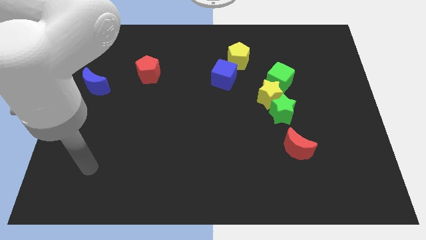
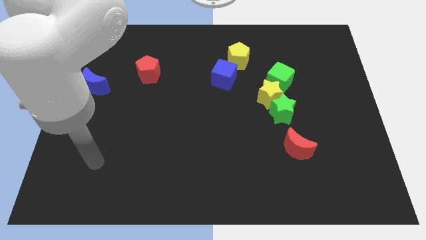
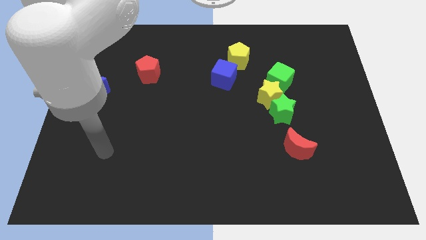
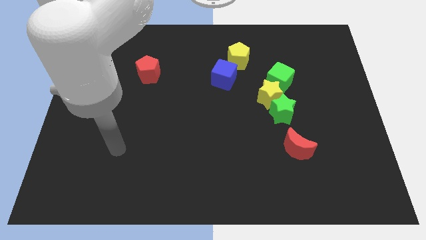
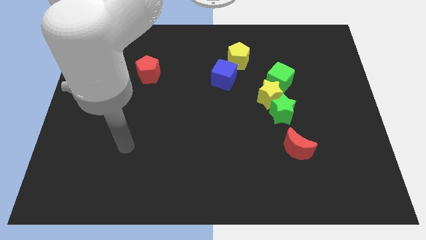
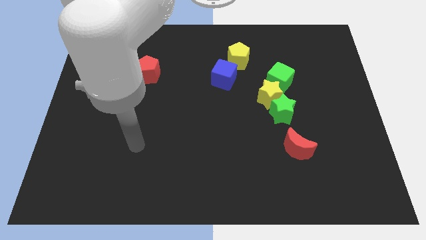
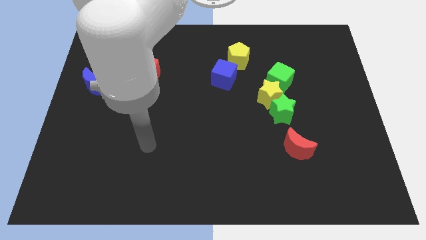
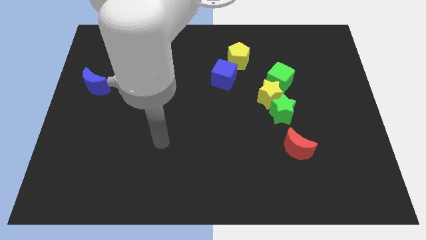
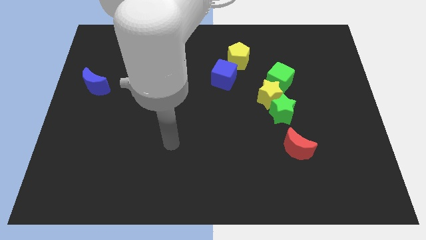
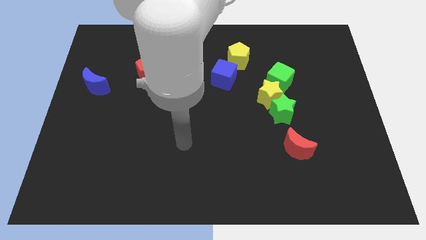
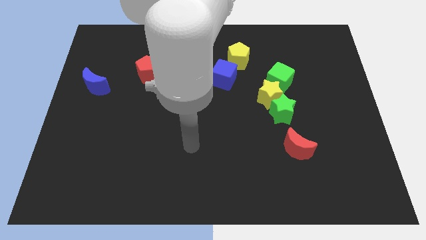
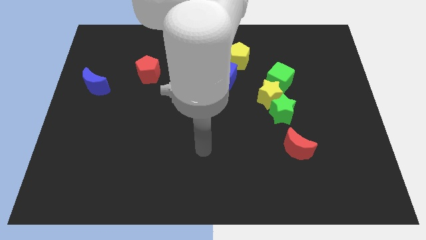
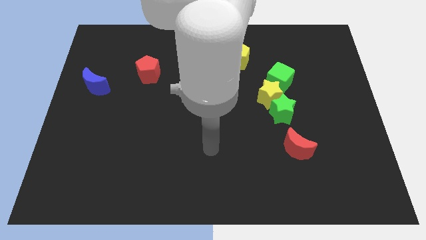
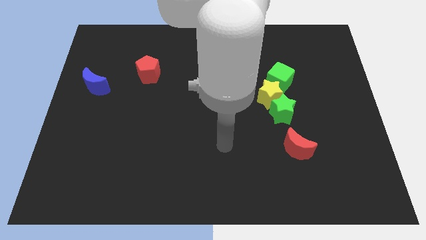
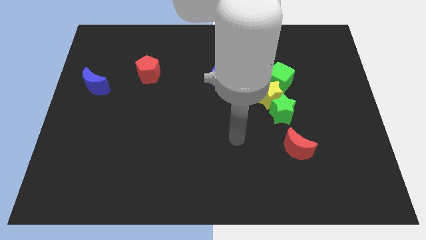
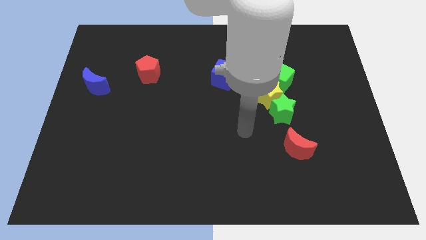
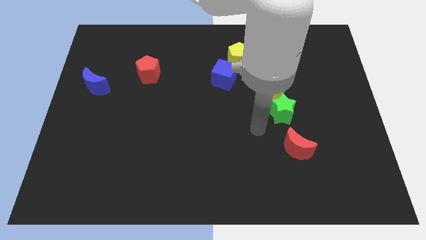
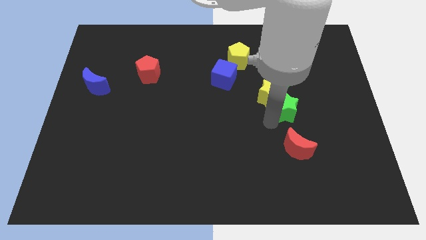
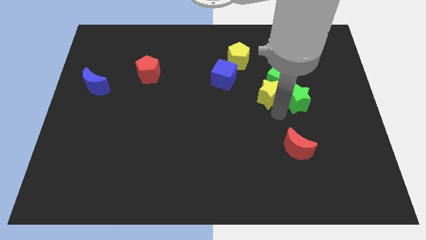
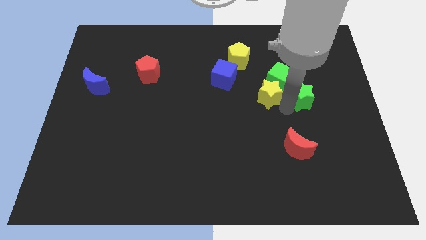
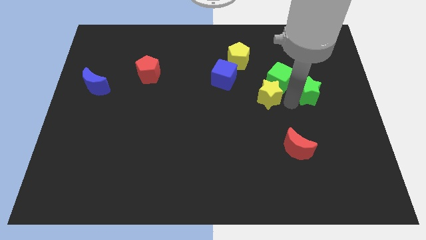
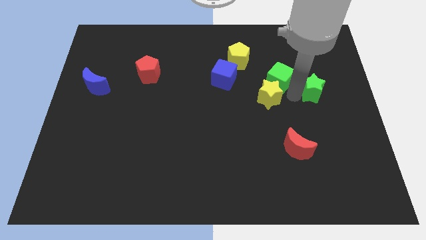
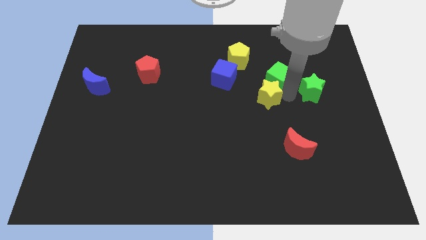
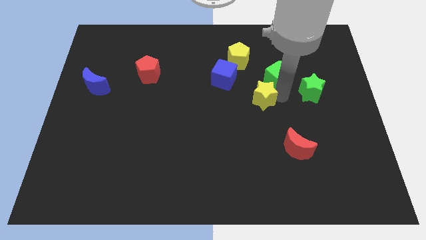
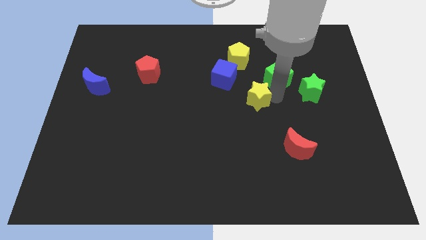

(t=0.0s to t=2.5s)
move the yellow star away from the green star and green cube

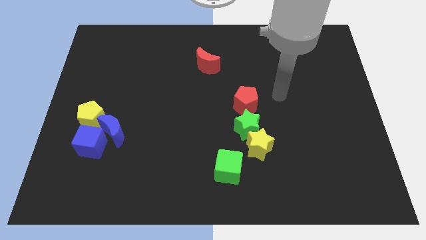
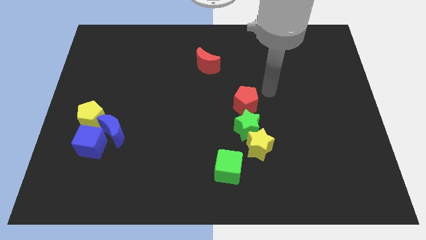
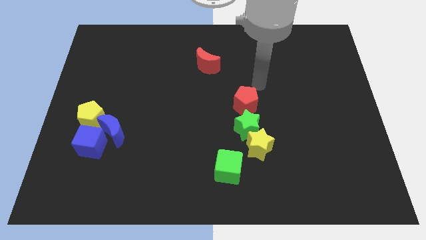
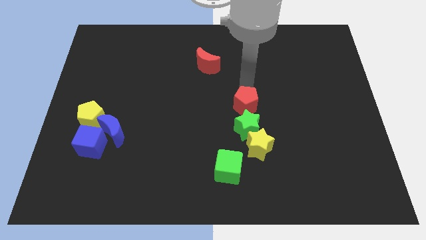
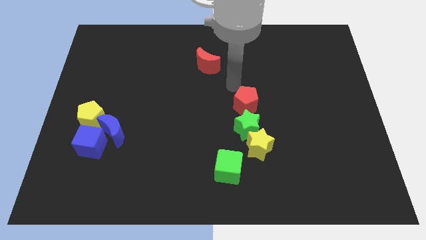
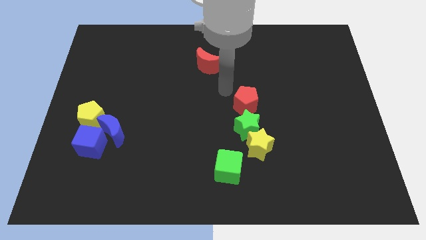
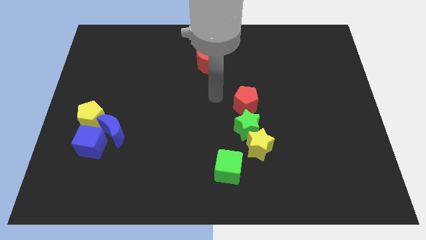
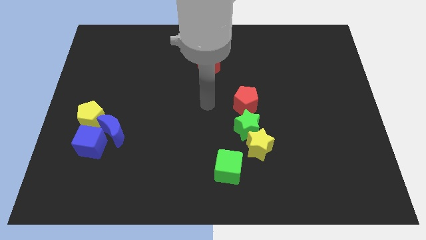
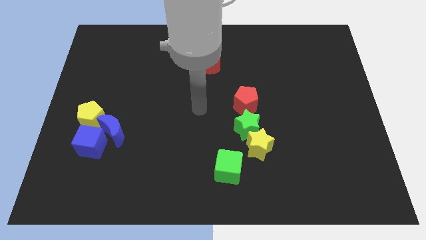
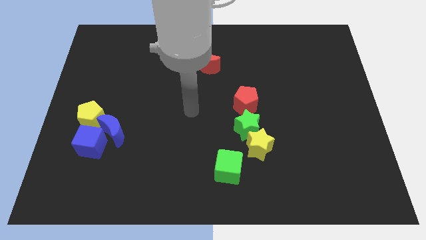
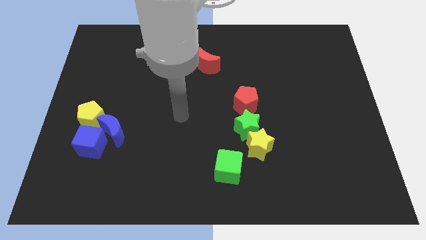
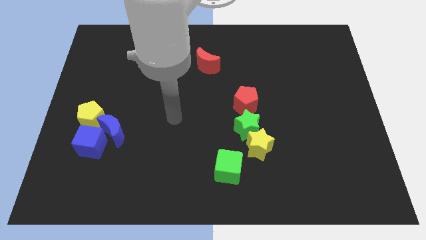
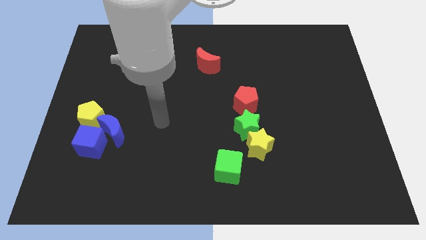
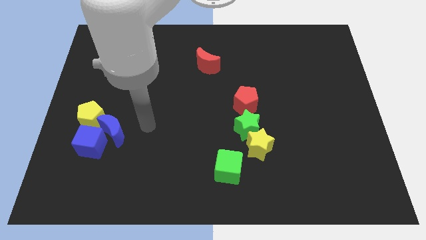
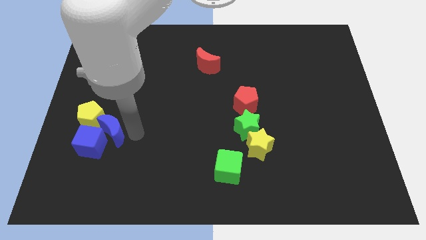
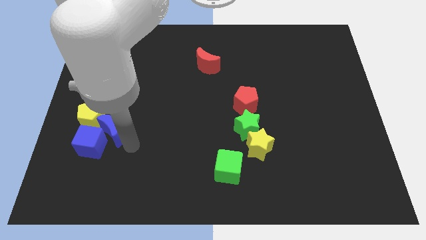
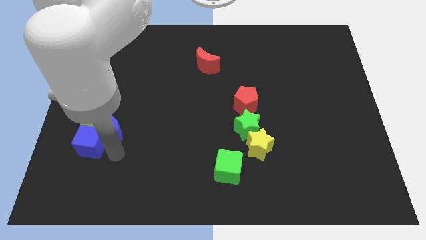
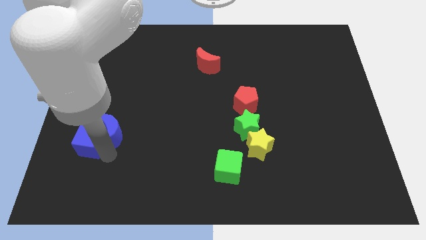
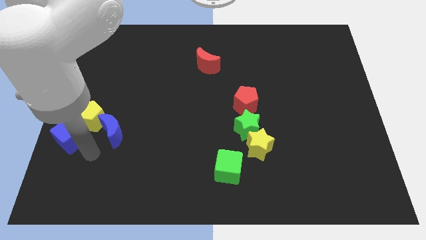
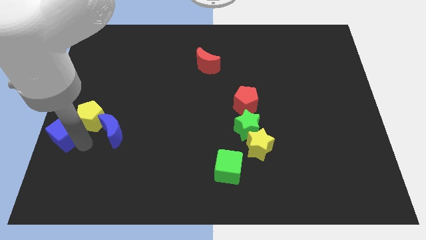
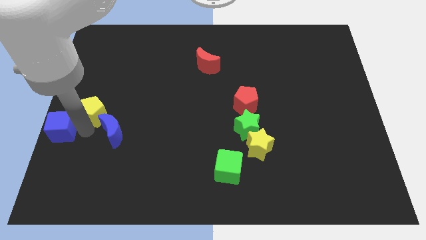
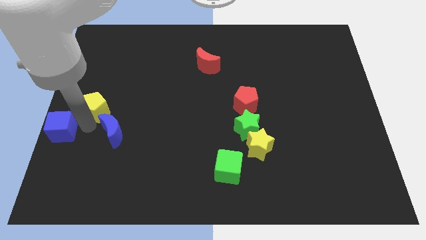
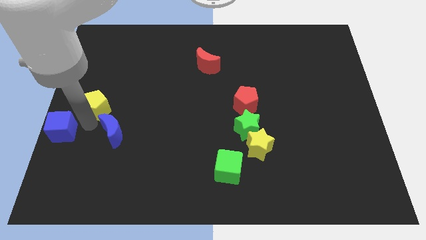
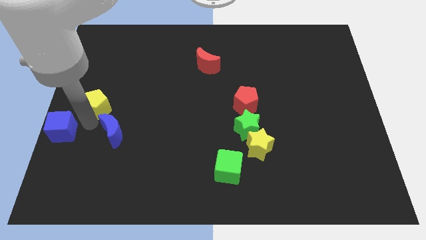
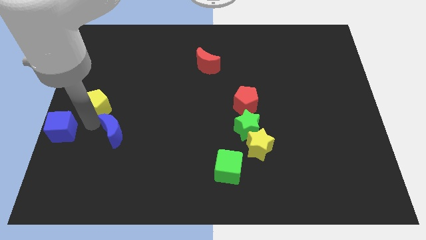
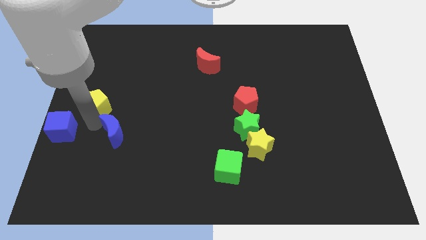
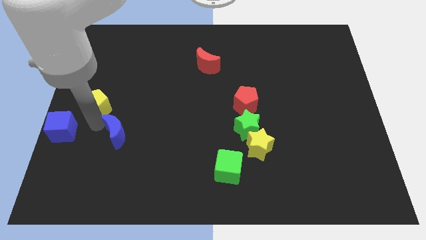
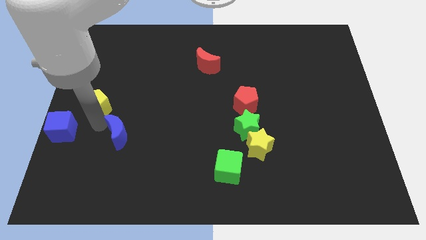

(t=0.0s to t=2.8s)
separate the blue moon from the blue cube and yellow pentagon

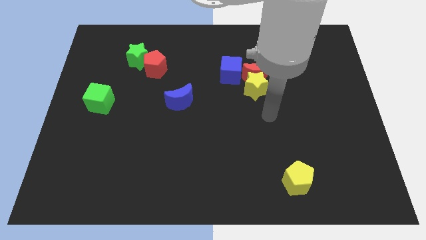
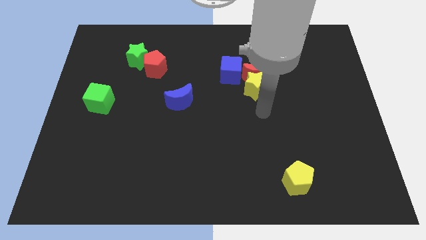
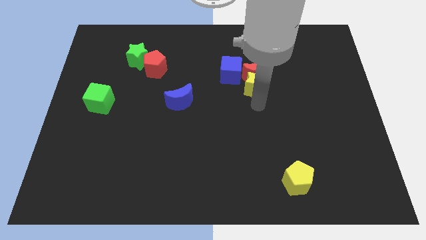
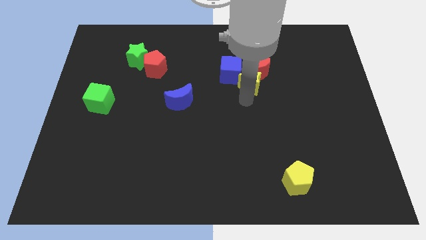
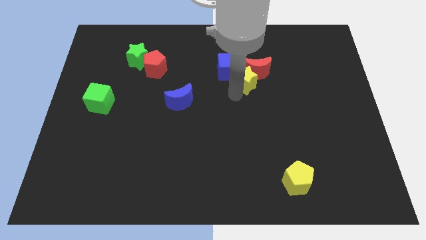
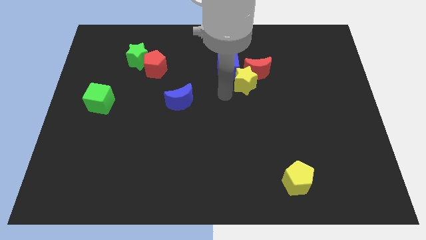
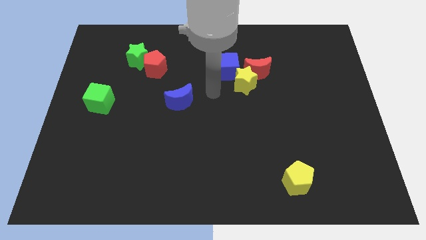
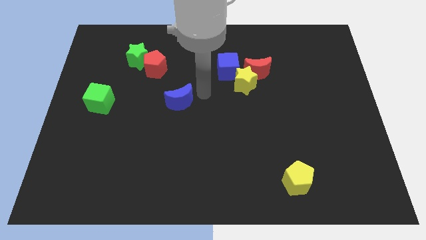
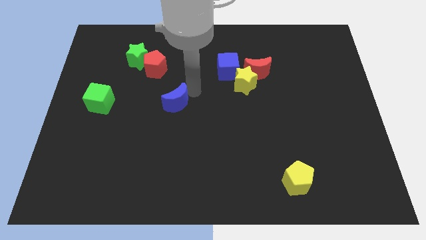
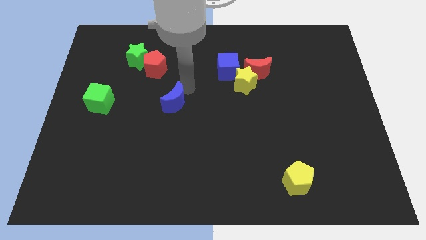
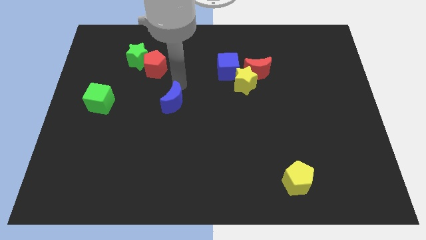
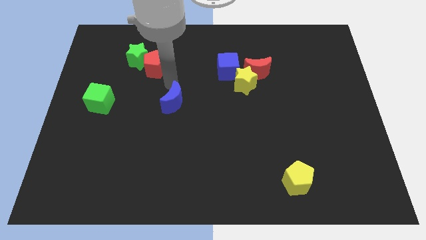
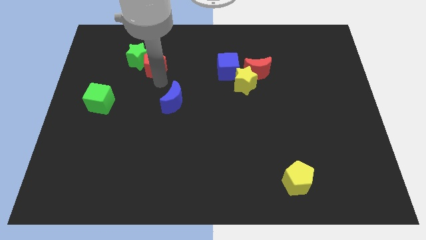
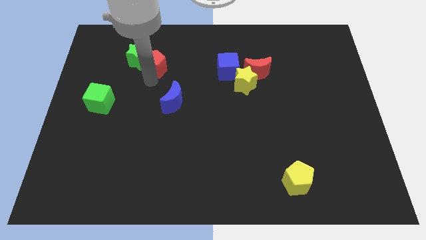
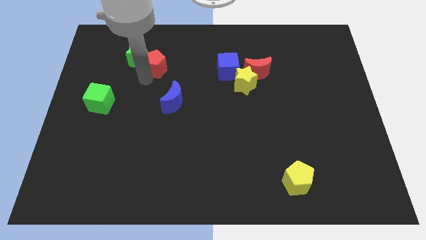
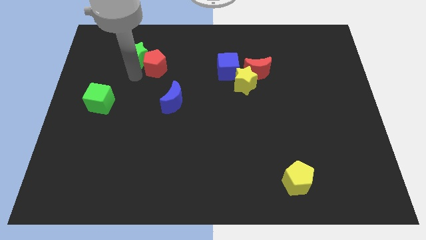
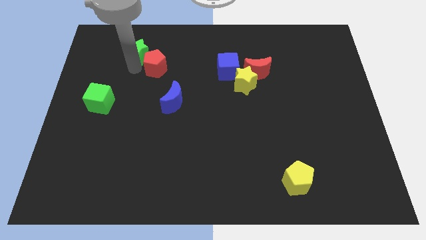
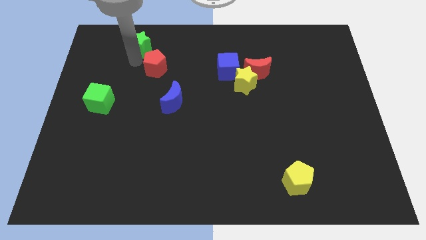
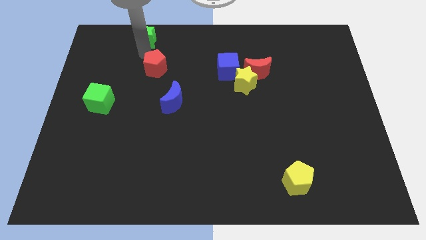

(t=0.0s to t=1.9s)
separate the red pentagon from the green star

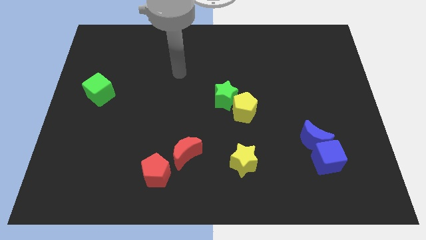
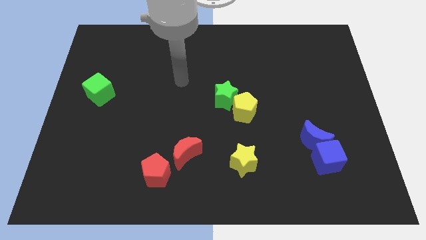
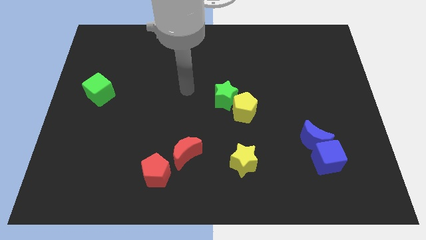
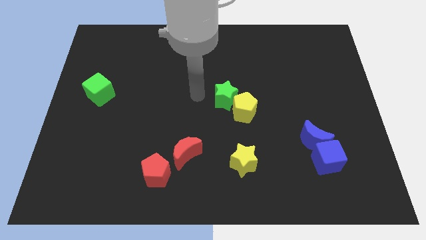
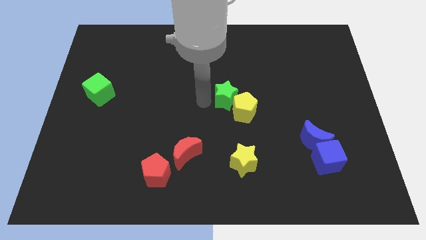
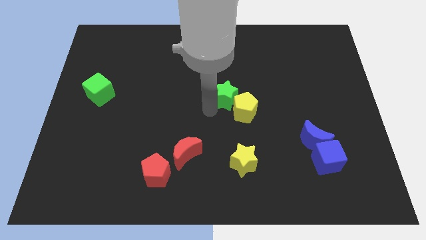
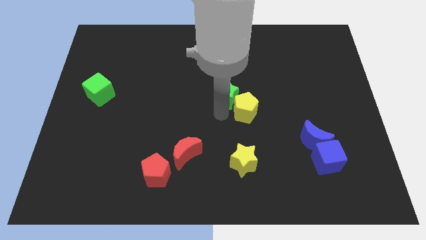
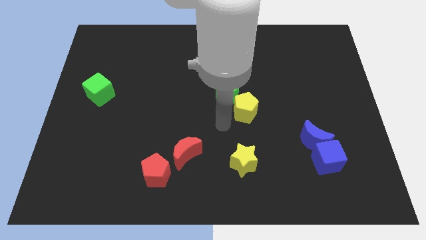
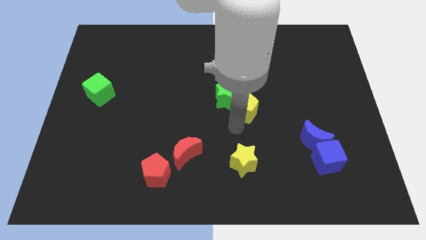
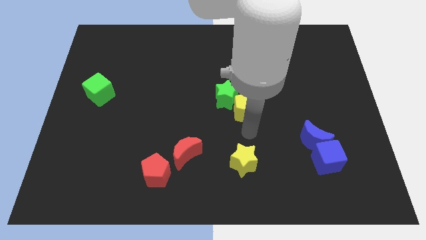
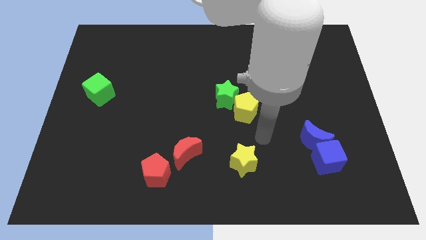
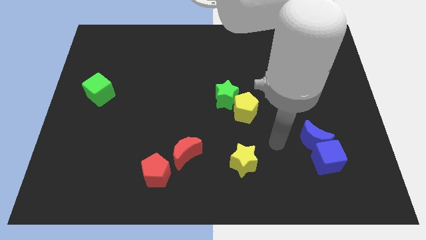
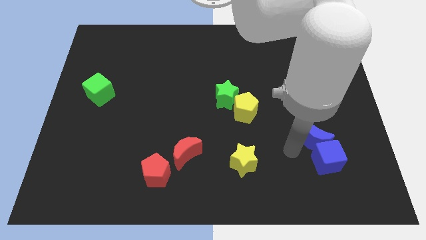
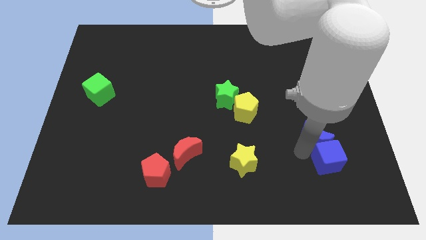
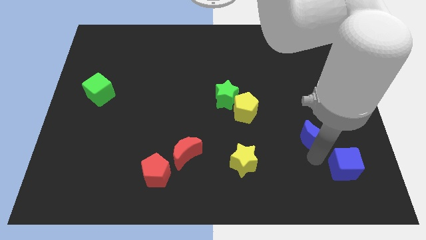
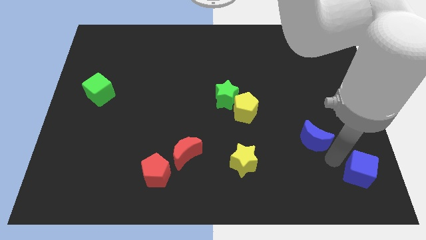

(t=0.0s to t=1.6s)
pull the blue moon apart from the blue cube

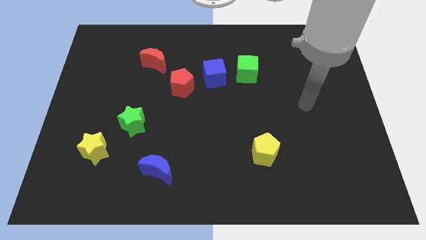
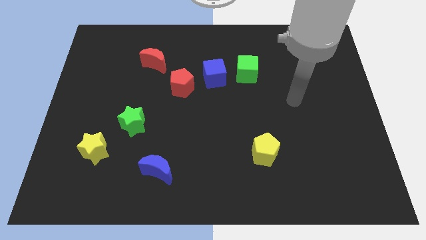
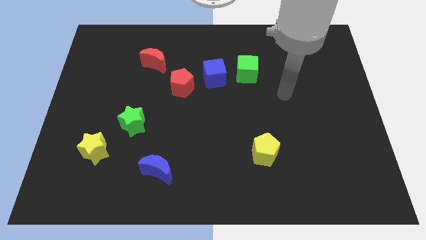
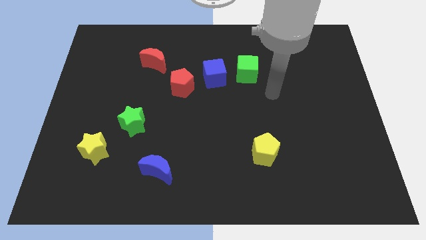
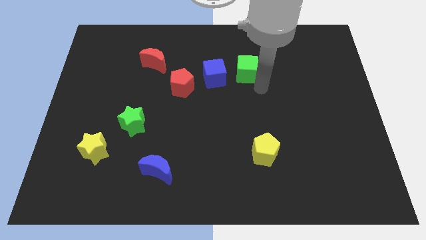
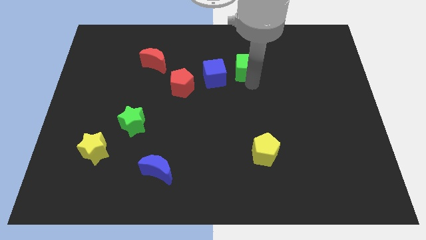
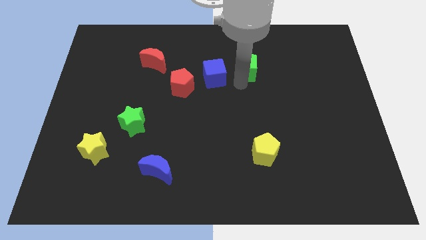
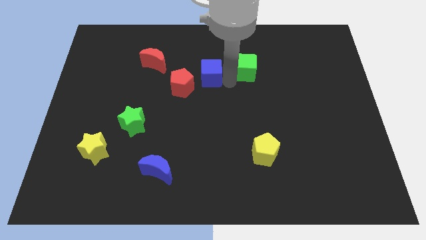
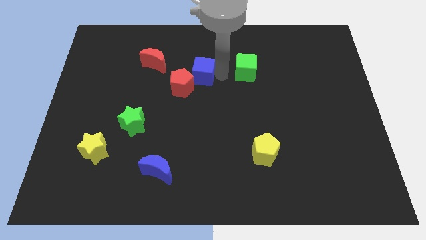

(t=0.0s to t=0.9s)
separate the green cube from the blue cube
